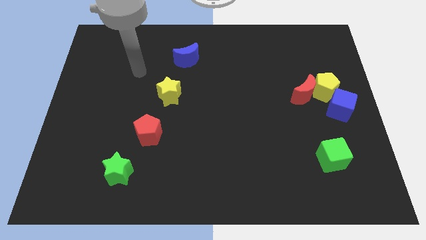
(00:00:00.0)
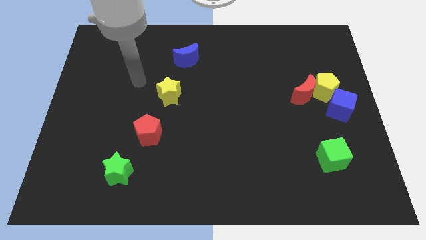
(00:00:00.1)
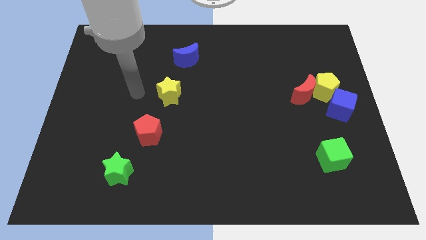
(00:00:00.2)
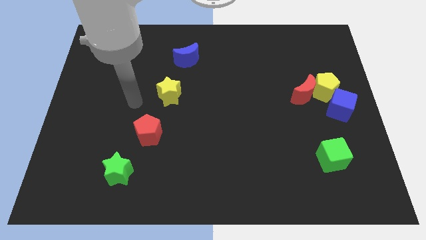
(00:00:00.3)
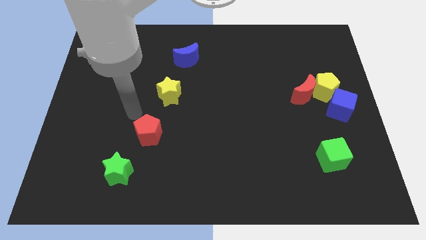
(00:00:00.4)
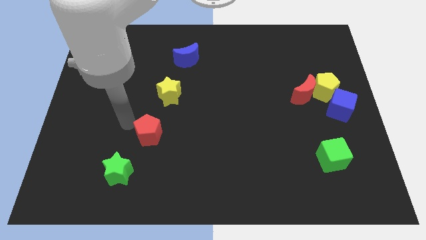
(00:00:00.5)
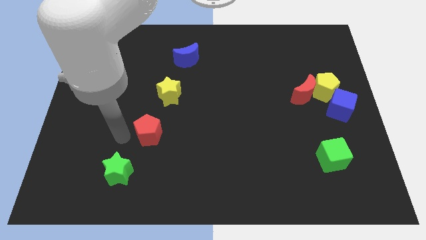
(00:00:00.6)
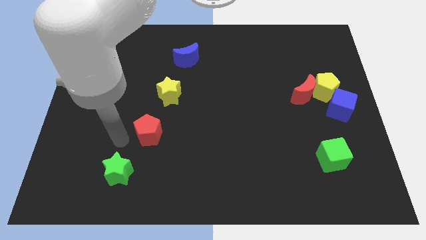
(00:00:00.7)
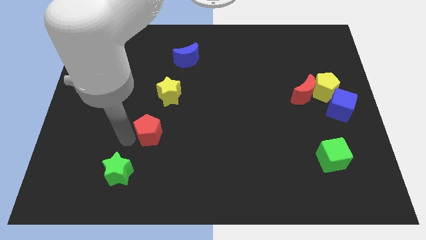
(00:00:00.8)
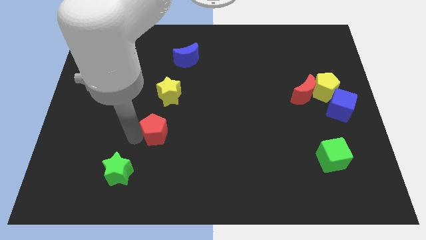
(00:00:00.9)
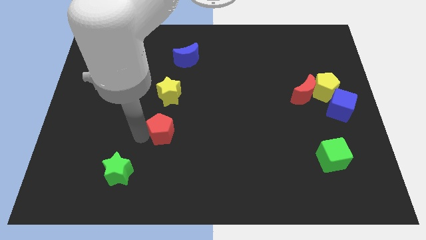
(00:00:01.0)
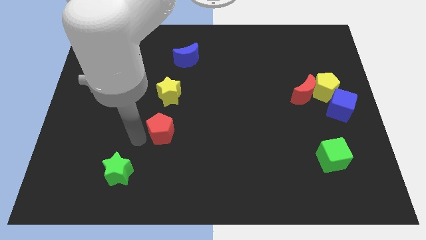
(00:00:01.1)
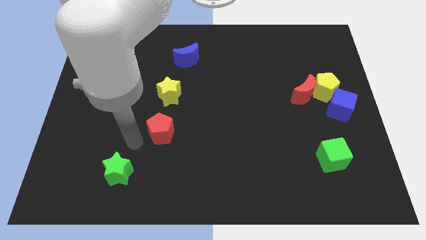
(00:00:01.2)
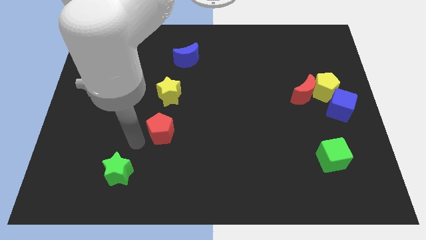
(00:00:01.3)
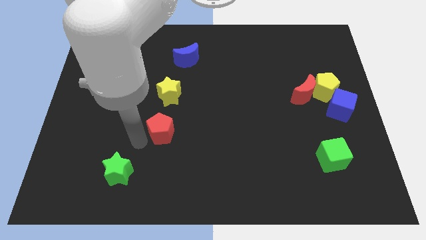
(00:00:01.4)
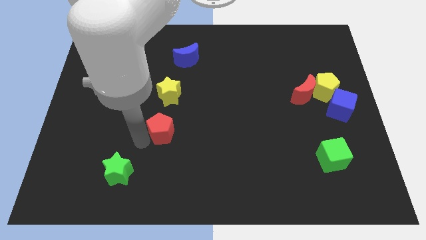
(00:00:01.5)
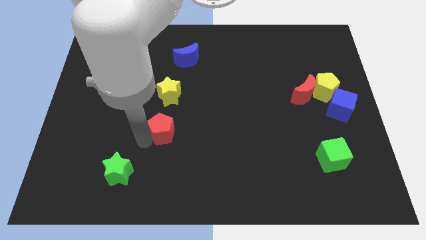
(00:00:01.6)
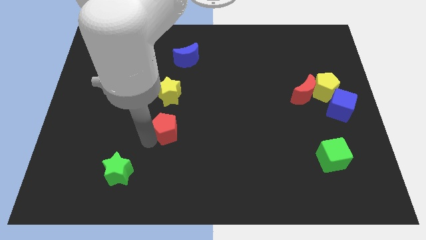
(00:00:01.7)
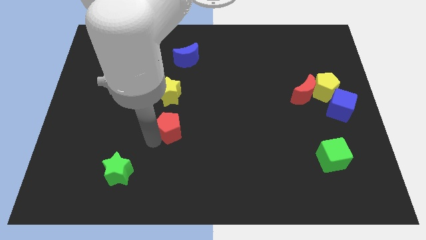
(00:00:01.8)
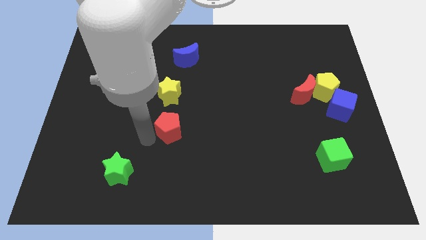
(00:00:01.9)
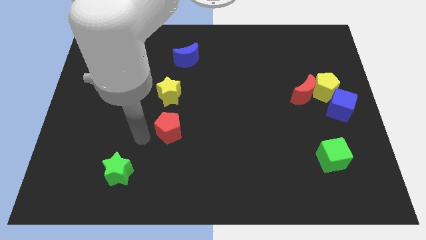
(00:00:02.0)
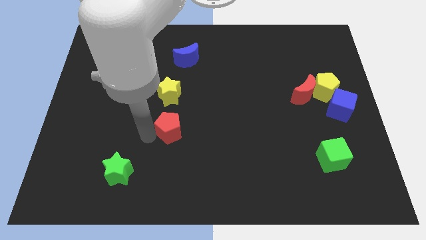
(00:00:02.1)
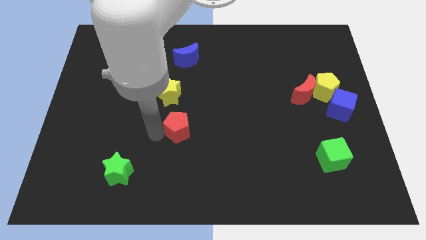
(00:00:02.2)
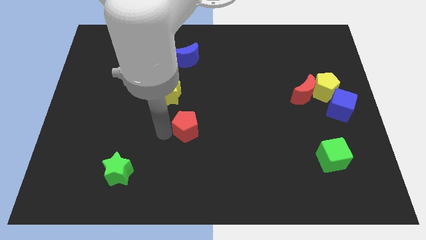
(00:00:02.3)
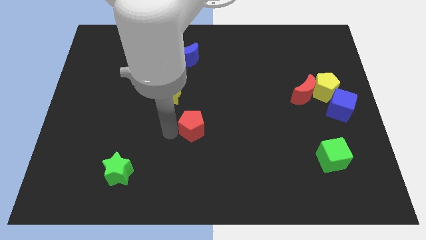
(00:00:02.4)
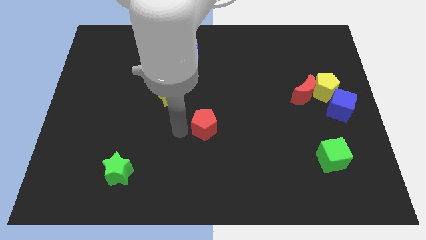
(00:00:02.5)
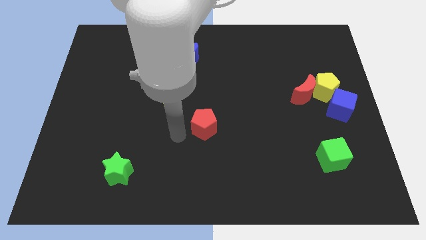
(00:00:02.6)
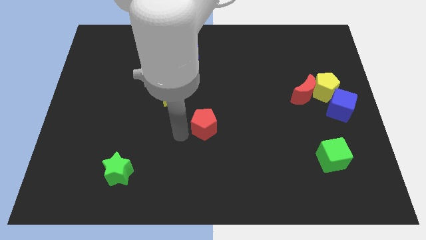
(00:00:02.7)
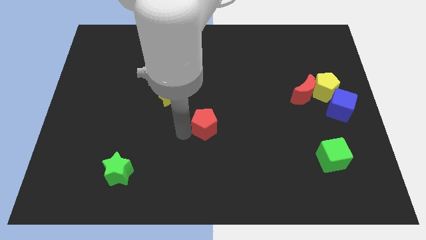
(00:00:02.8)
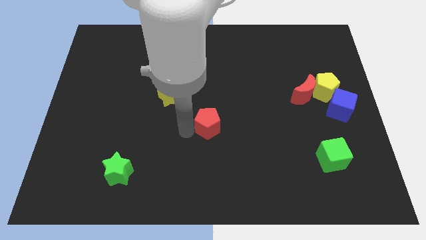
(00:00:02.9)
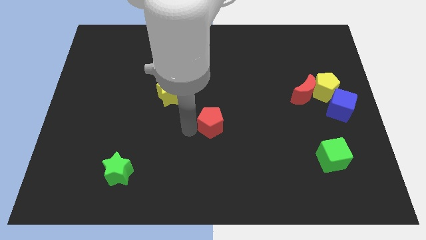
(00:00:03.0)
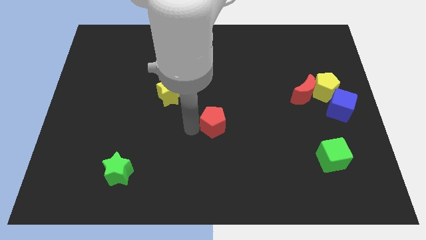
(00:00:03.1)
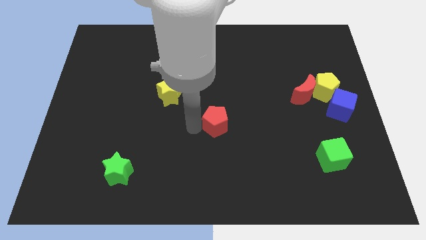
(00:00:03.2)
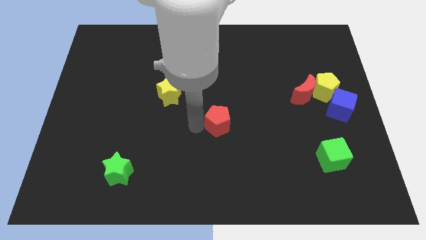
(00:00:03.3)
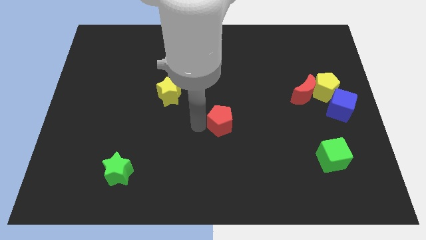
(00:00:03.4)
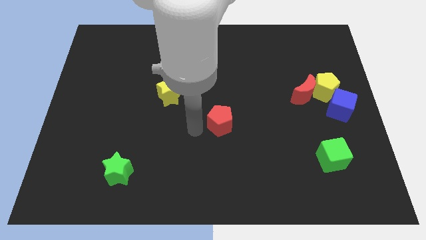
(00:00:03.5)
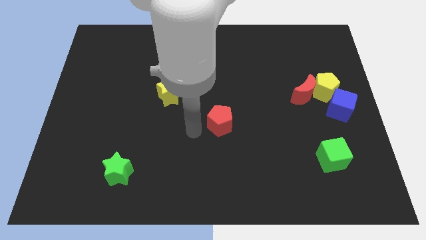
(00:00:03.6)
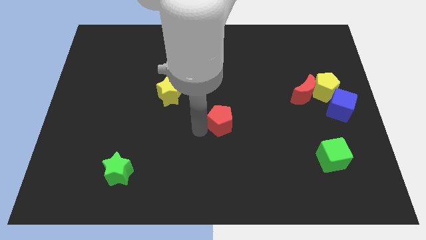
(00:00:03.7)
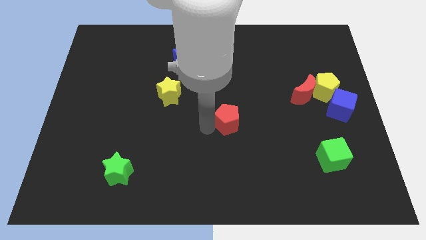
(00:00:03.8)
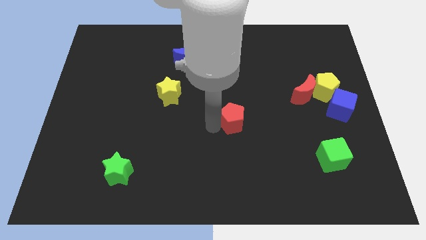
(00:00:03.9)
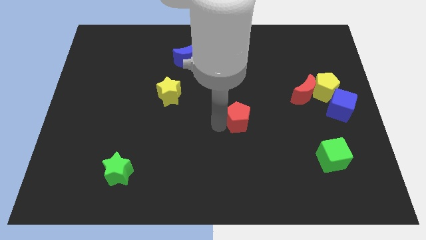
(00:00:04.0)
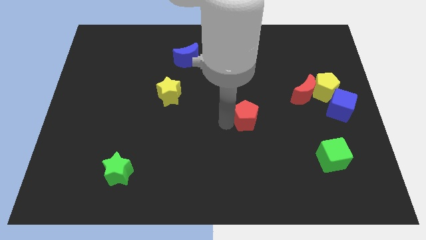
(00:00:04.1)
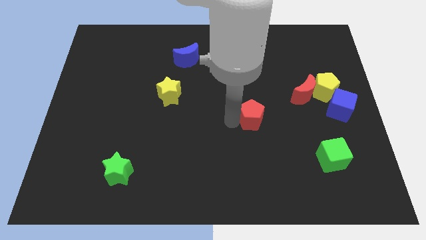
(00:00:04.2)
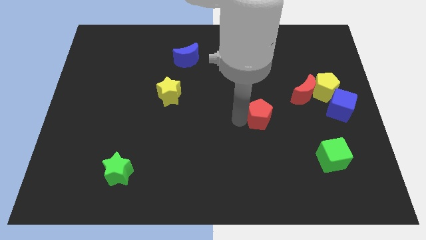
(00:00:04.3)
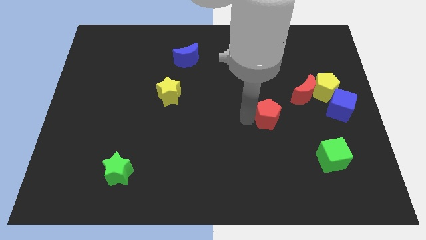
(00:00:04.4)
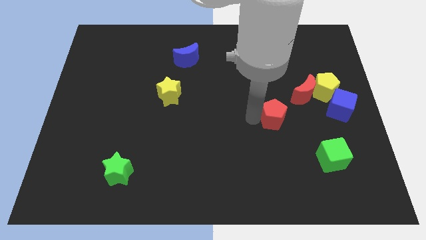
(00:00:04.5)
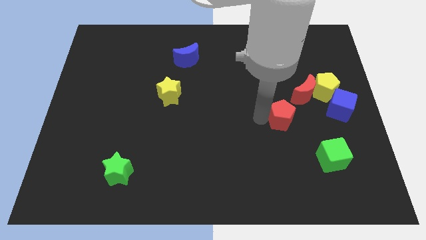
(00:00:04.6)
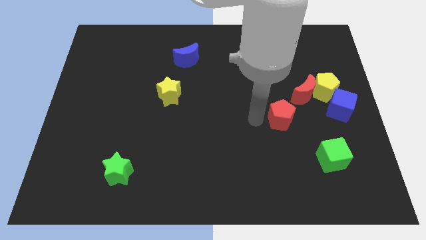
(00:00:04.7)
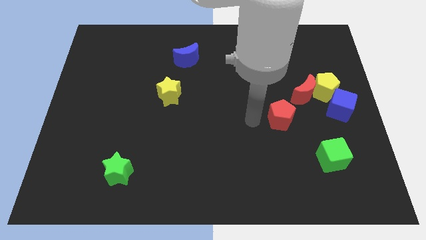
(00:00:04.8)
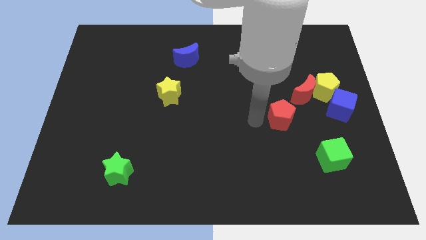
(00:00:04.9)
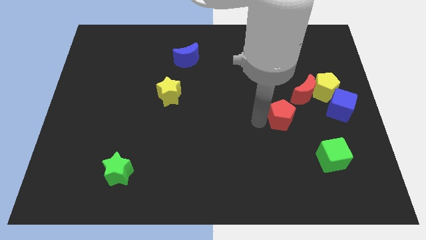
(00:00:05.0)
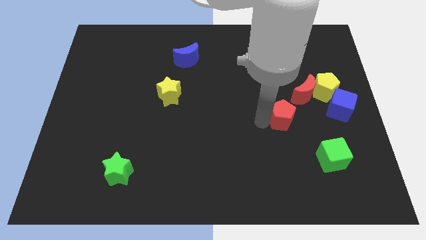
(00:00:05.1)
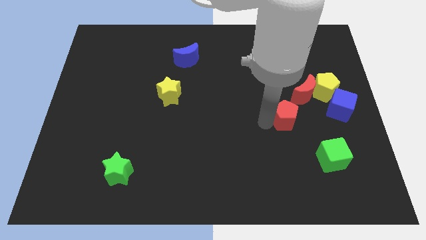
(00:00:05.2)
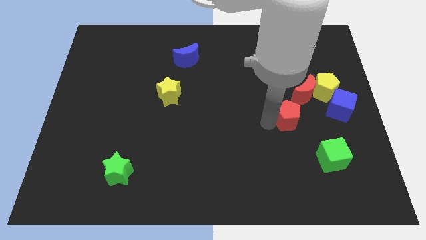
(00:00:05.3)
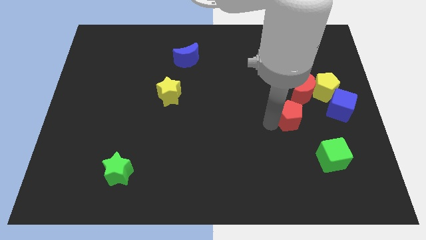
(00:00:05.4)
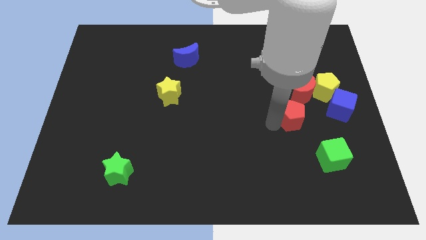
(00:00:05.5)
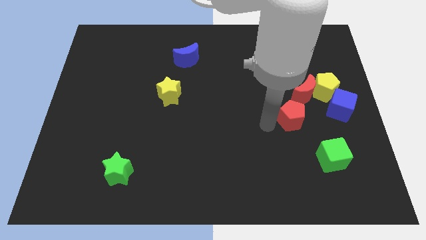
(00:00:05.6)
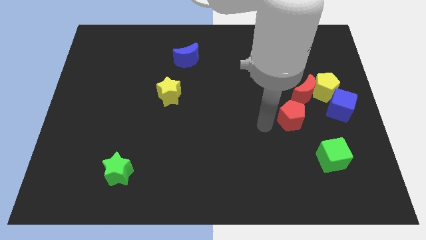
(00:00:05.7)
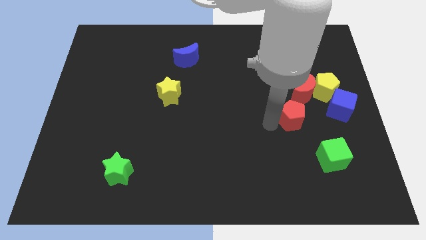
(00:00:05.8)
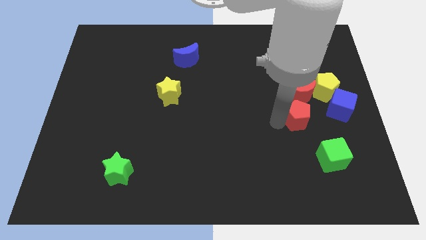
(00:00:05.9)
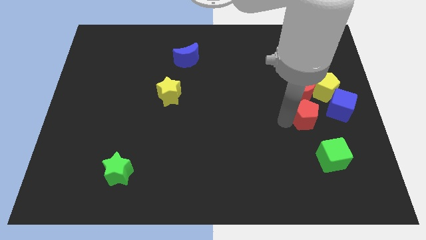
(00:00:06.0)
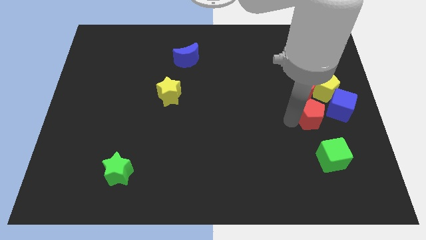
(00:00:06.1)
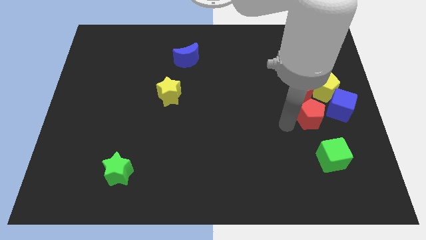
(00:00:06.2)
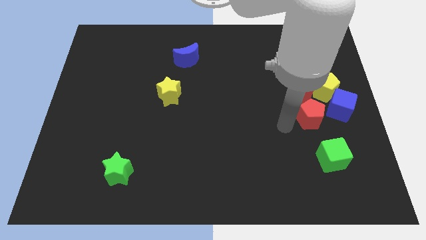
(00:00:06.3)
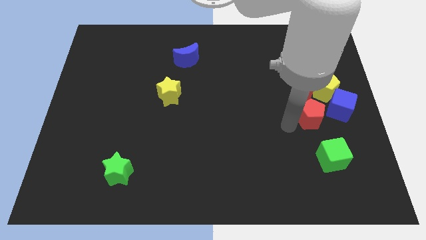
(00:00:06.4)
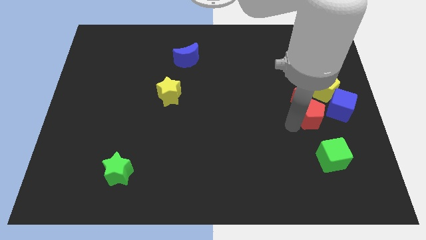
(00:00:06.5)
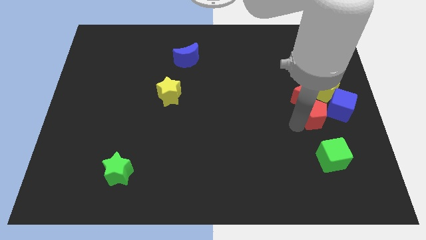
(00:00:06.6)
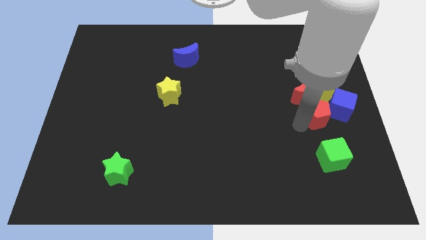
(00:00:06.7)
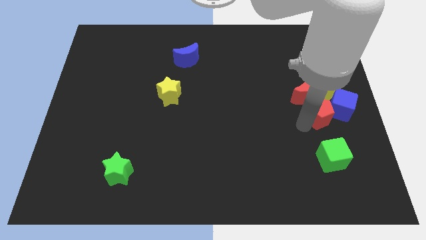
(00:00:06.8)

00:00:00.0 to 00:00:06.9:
move the red pentagon close to the blue cube

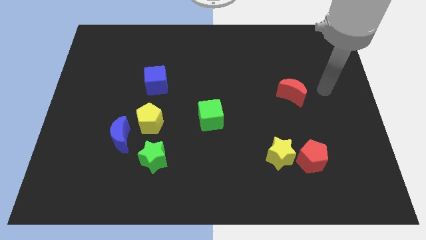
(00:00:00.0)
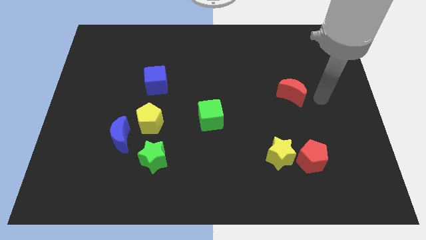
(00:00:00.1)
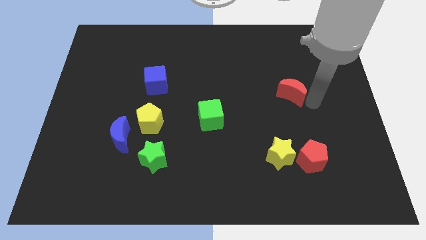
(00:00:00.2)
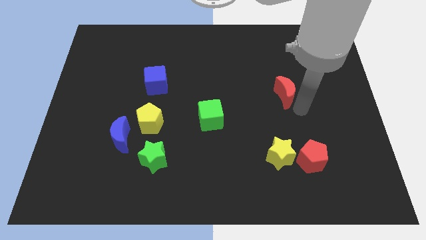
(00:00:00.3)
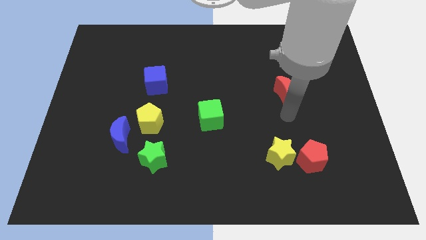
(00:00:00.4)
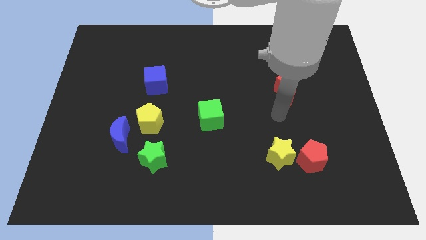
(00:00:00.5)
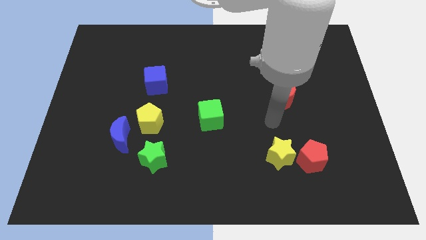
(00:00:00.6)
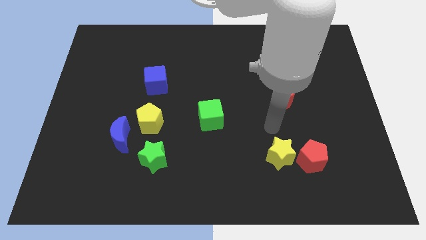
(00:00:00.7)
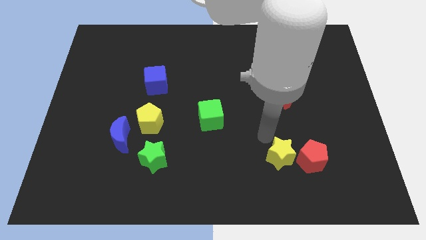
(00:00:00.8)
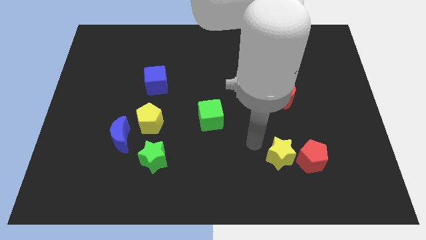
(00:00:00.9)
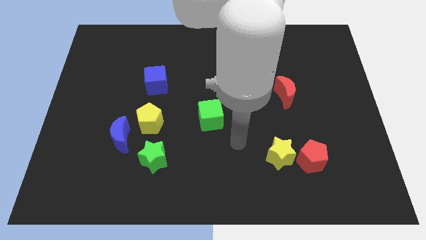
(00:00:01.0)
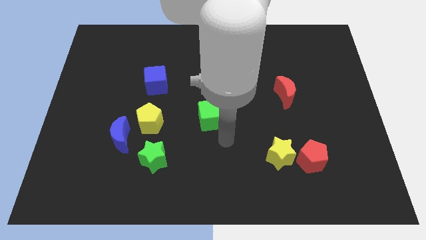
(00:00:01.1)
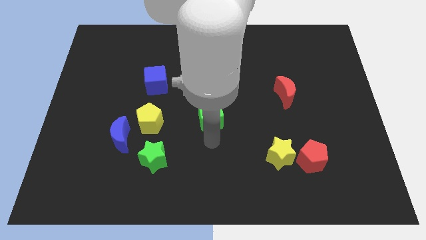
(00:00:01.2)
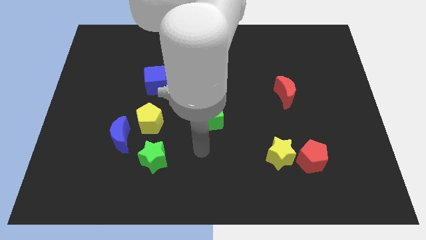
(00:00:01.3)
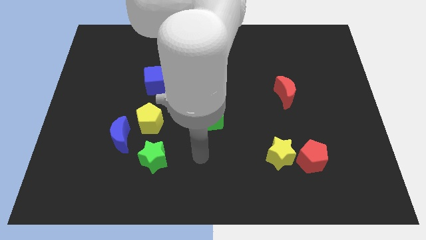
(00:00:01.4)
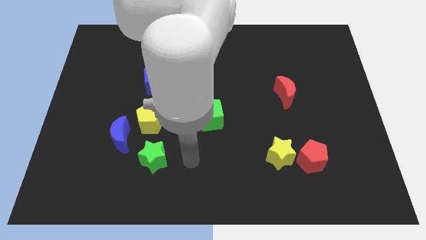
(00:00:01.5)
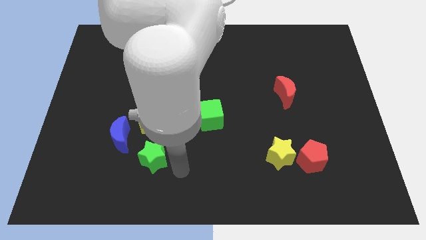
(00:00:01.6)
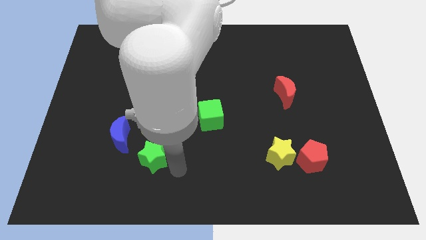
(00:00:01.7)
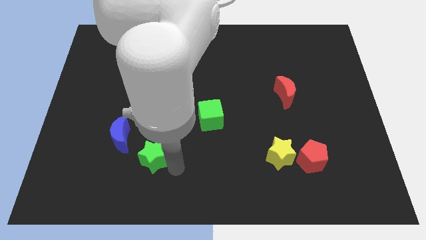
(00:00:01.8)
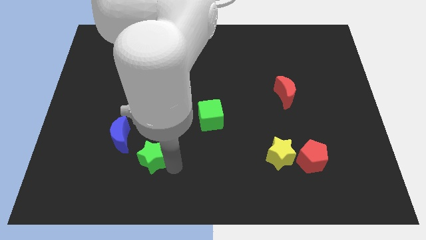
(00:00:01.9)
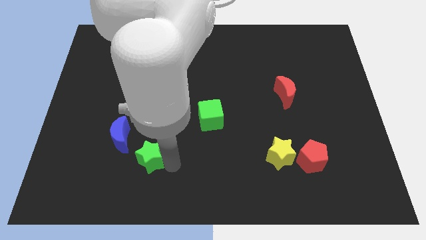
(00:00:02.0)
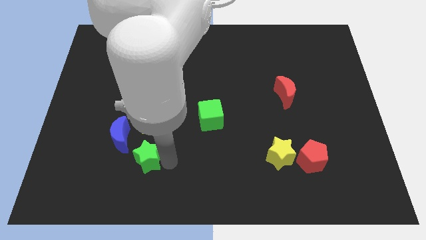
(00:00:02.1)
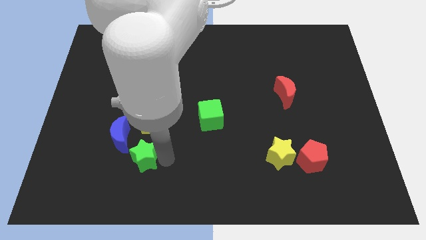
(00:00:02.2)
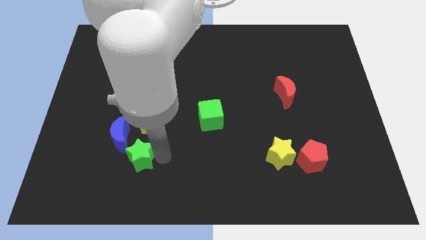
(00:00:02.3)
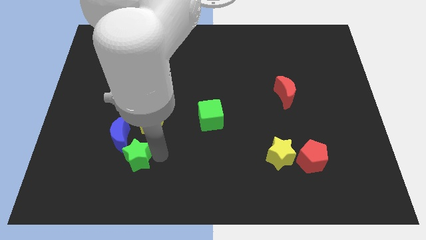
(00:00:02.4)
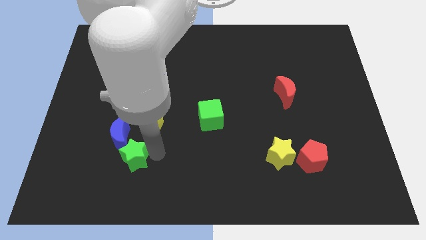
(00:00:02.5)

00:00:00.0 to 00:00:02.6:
slide the green star next to the blue moon
